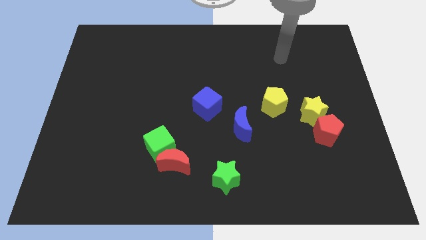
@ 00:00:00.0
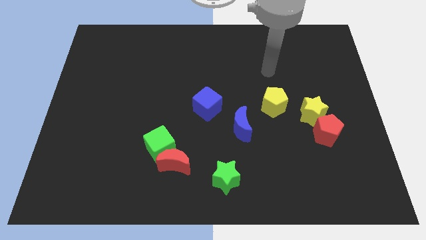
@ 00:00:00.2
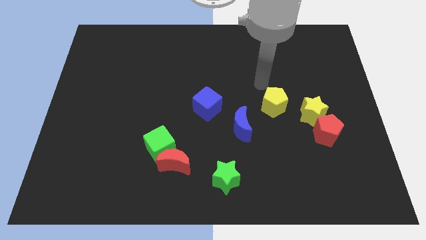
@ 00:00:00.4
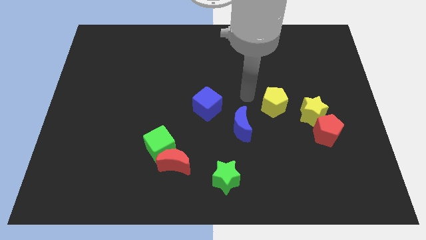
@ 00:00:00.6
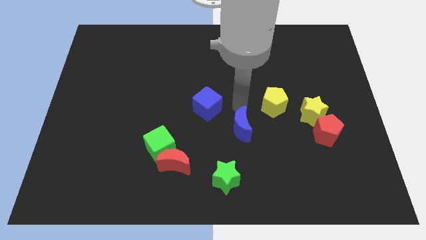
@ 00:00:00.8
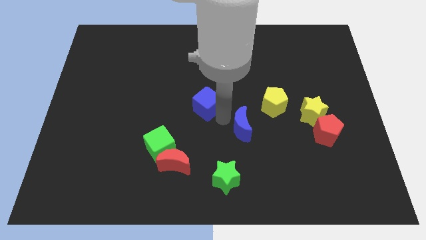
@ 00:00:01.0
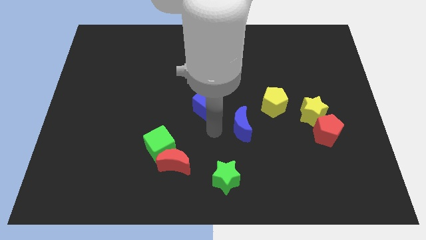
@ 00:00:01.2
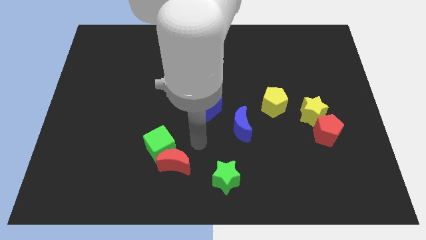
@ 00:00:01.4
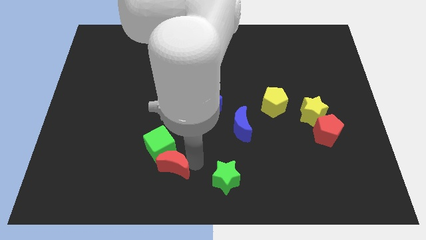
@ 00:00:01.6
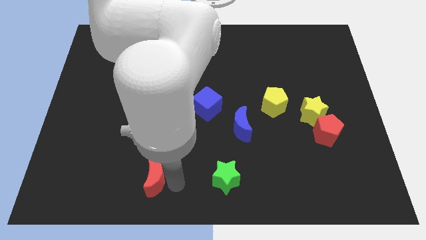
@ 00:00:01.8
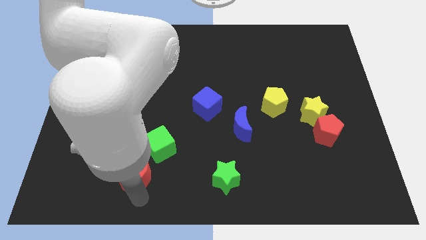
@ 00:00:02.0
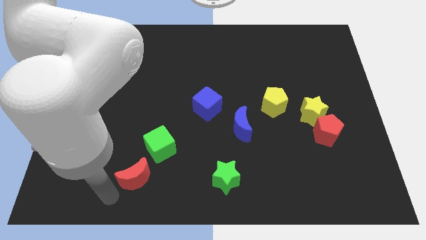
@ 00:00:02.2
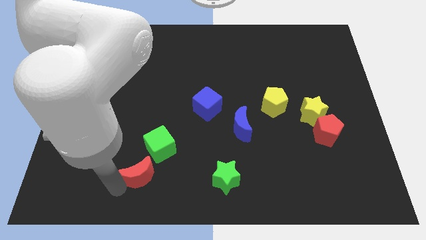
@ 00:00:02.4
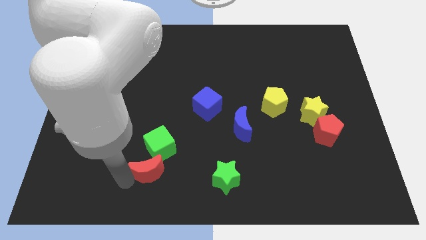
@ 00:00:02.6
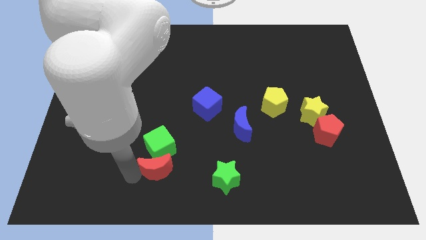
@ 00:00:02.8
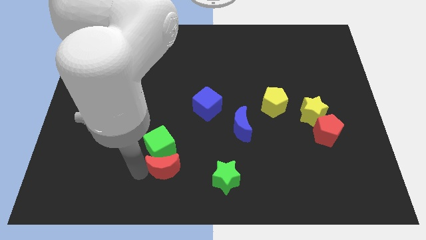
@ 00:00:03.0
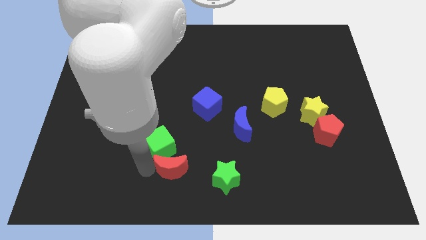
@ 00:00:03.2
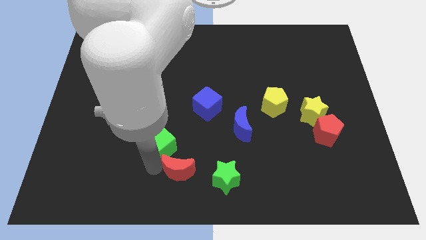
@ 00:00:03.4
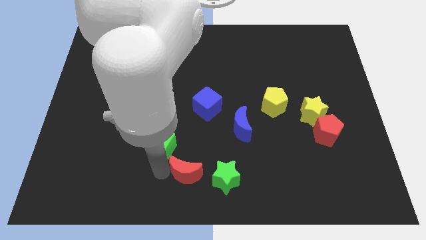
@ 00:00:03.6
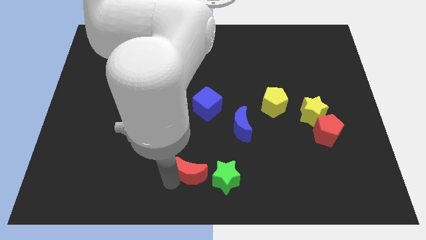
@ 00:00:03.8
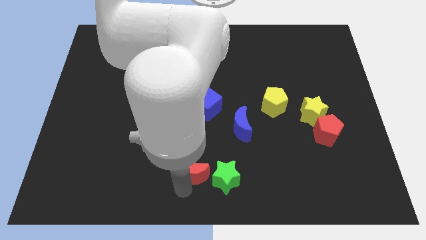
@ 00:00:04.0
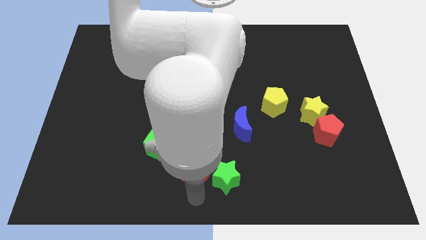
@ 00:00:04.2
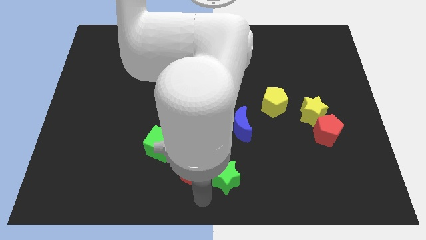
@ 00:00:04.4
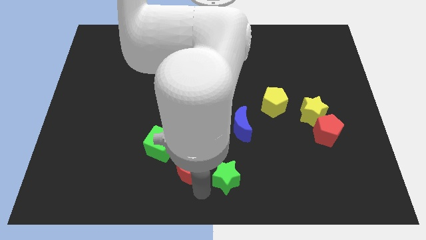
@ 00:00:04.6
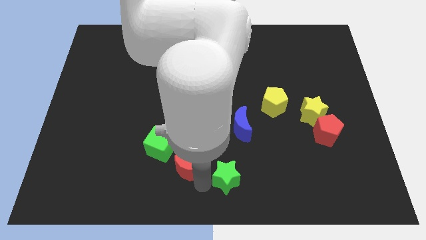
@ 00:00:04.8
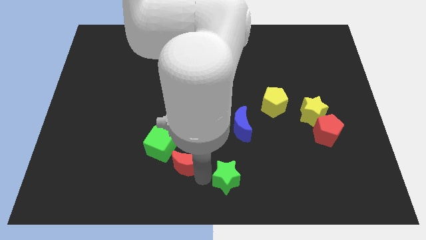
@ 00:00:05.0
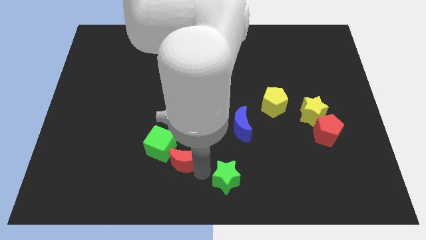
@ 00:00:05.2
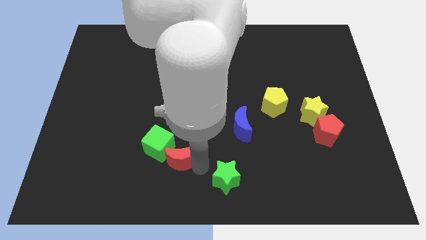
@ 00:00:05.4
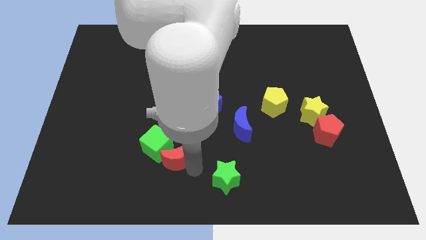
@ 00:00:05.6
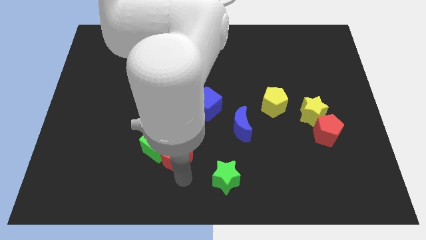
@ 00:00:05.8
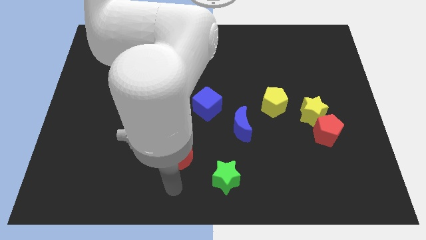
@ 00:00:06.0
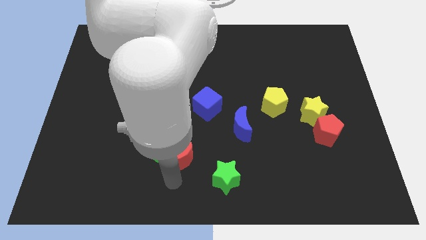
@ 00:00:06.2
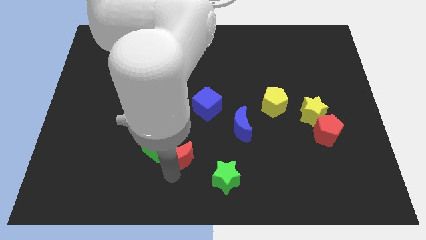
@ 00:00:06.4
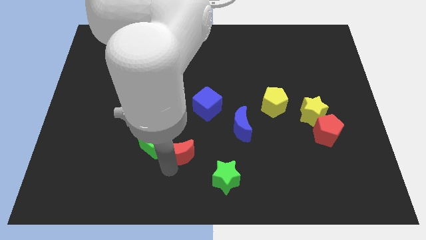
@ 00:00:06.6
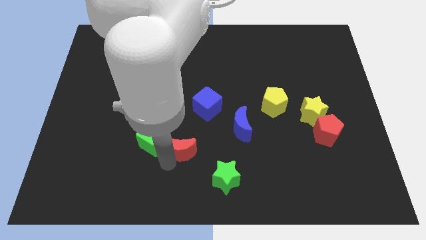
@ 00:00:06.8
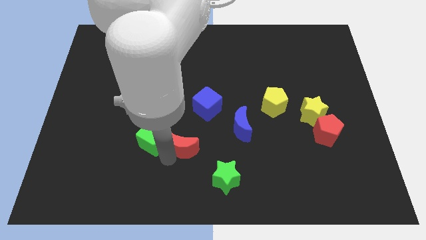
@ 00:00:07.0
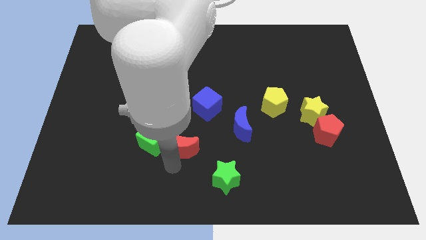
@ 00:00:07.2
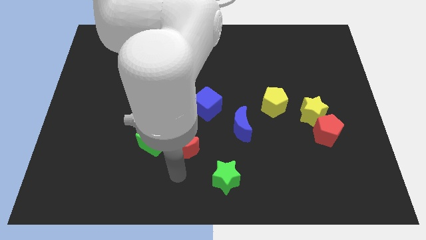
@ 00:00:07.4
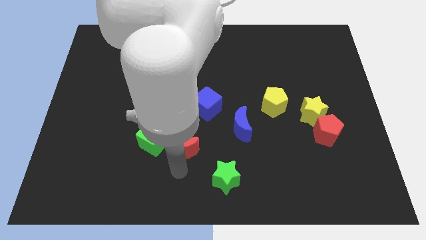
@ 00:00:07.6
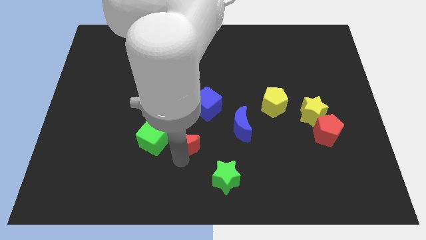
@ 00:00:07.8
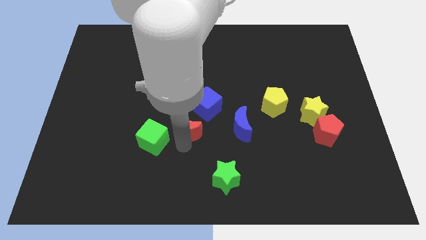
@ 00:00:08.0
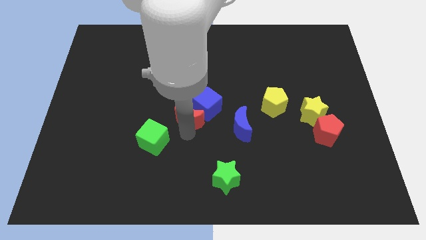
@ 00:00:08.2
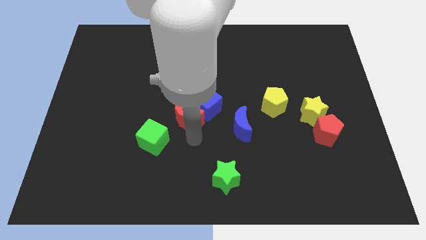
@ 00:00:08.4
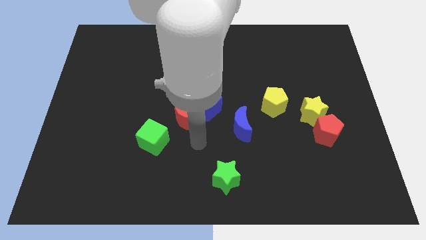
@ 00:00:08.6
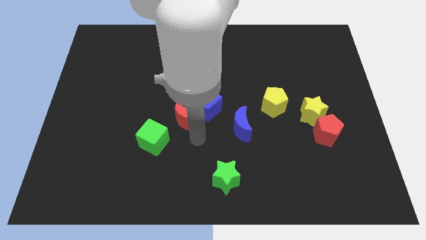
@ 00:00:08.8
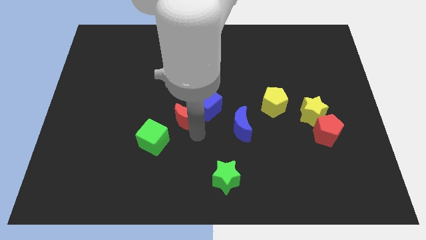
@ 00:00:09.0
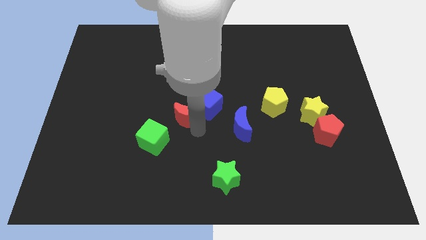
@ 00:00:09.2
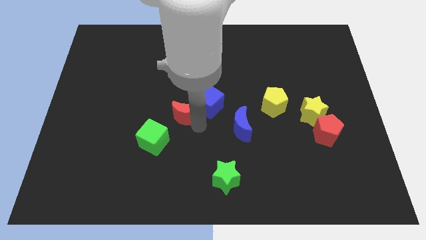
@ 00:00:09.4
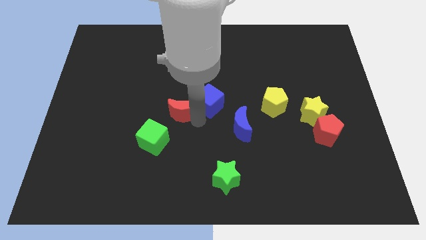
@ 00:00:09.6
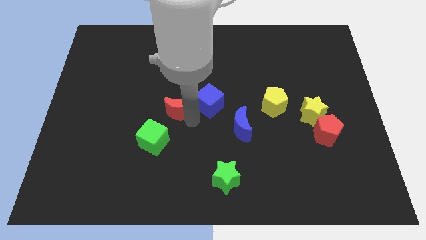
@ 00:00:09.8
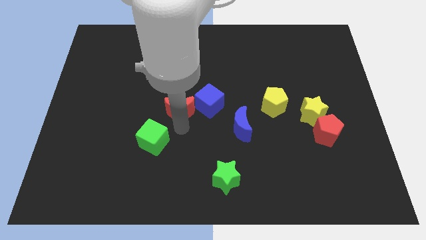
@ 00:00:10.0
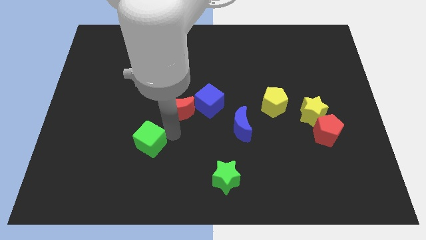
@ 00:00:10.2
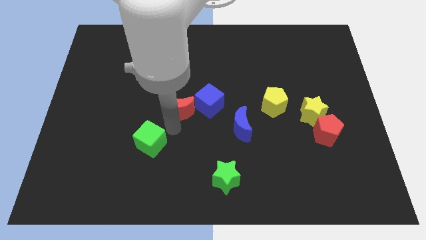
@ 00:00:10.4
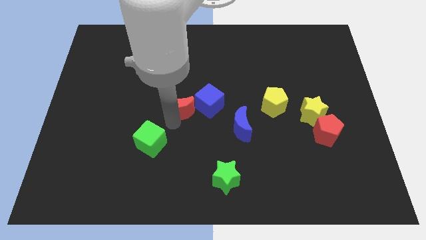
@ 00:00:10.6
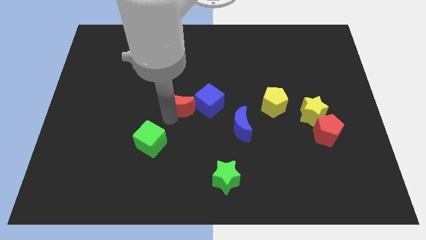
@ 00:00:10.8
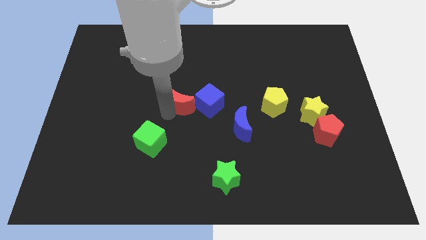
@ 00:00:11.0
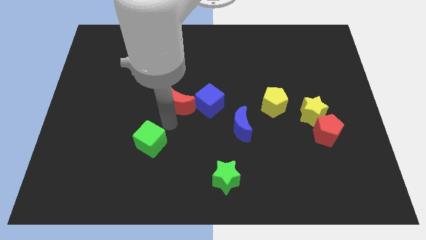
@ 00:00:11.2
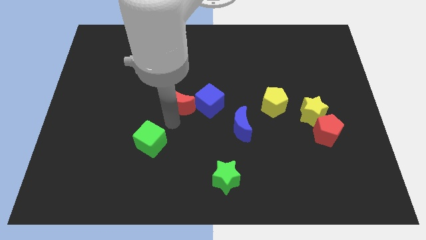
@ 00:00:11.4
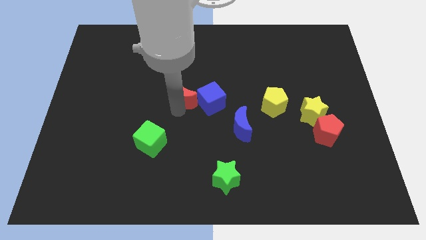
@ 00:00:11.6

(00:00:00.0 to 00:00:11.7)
move the red moon to the top left side of the blue cube

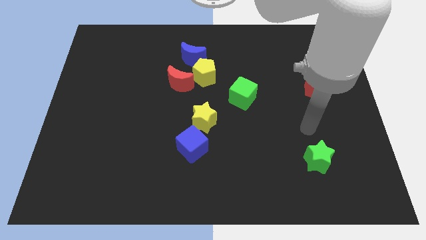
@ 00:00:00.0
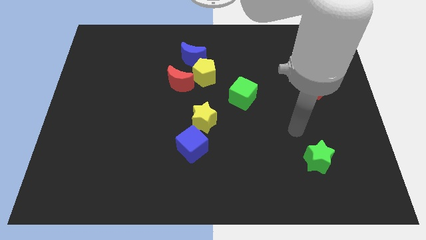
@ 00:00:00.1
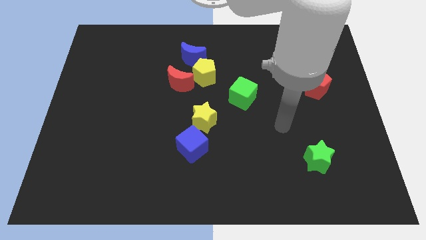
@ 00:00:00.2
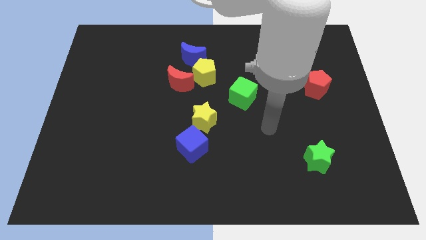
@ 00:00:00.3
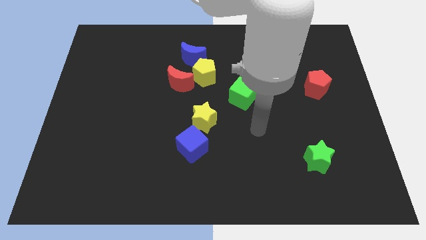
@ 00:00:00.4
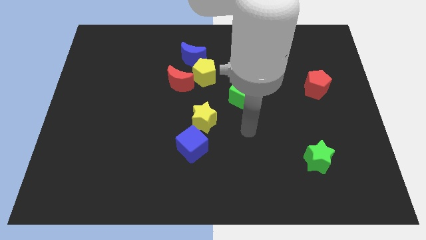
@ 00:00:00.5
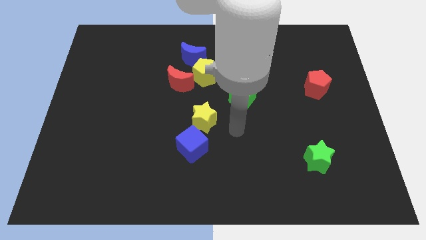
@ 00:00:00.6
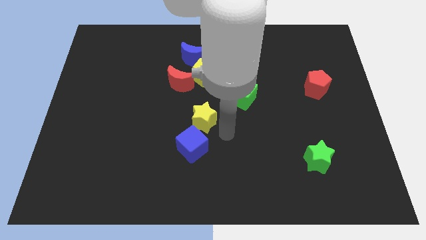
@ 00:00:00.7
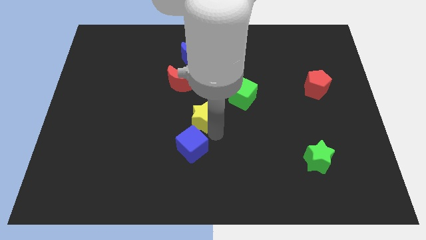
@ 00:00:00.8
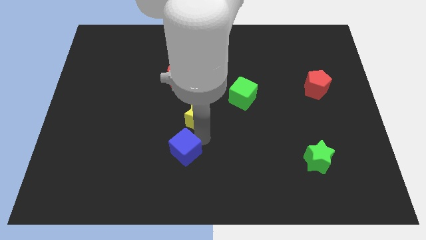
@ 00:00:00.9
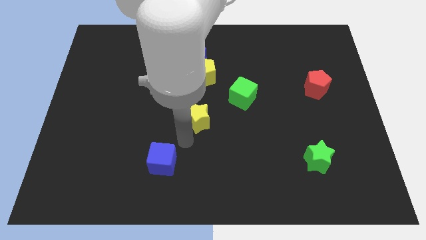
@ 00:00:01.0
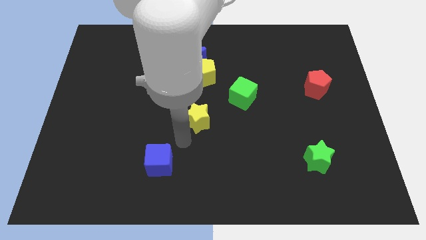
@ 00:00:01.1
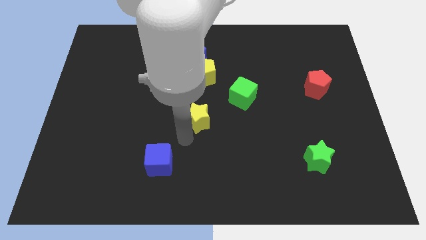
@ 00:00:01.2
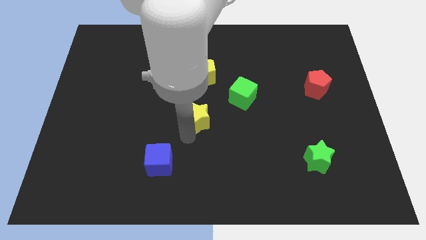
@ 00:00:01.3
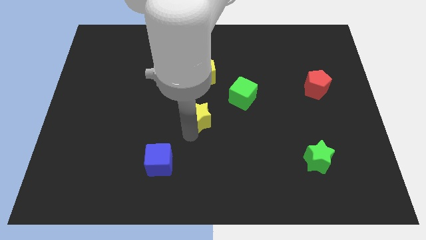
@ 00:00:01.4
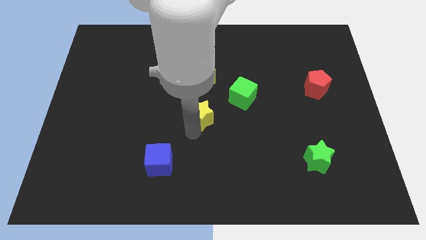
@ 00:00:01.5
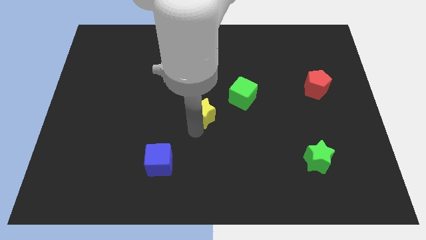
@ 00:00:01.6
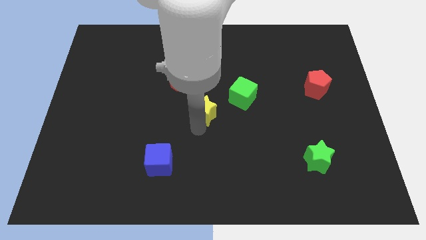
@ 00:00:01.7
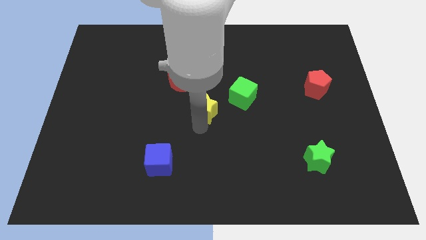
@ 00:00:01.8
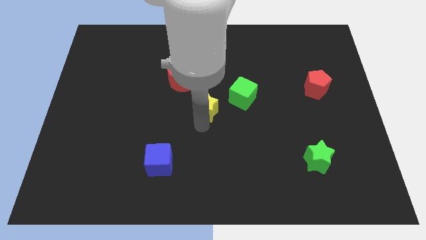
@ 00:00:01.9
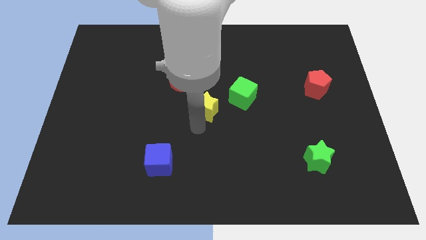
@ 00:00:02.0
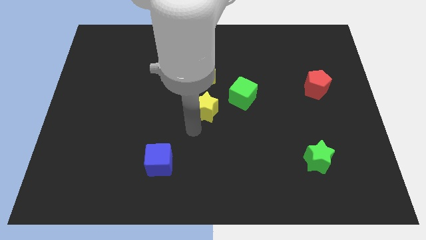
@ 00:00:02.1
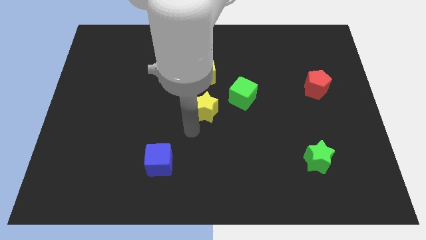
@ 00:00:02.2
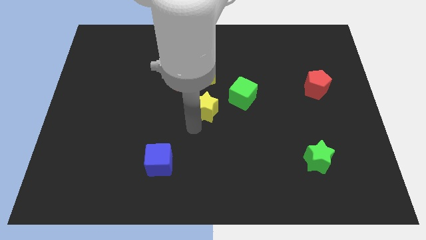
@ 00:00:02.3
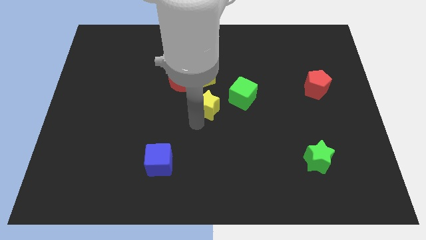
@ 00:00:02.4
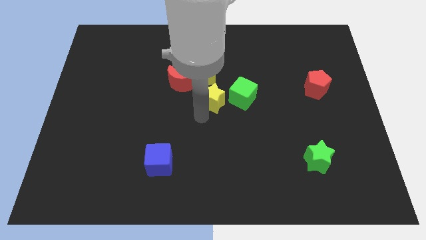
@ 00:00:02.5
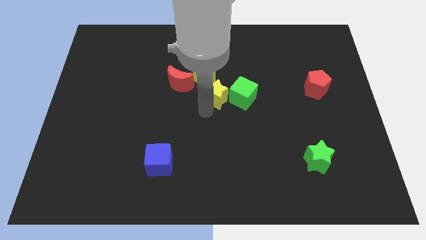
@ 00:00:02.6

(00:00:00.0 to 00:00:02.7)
move the yellow star diagonally up and to the left of the green cube
